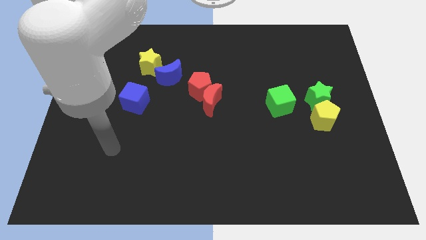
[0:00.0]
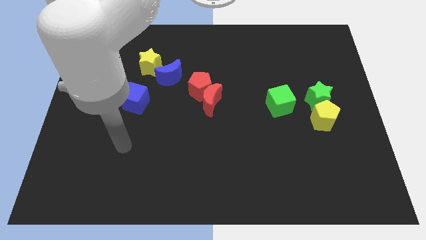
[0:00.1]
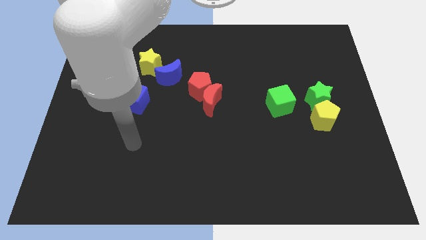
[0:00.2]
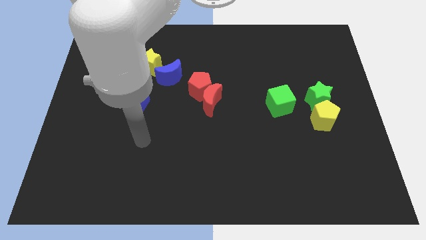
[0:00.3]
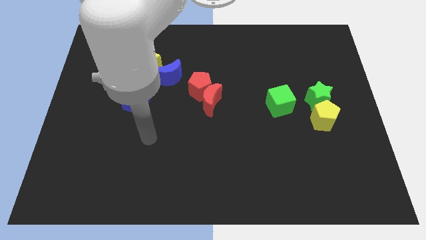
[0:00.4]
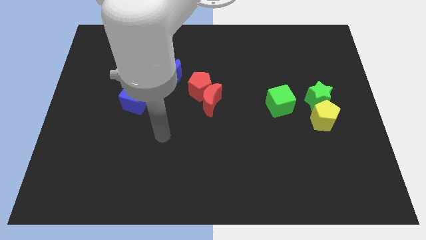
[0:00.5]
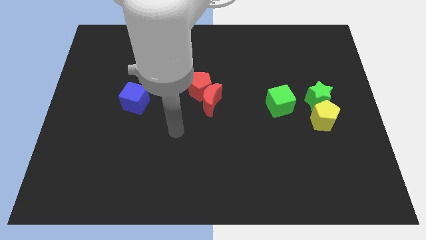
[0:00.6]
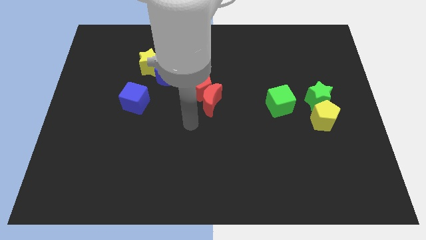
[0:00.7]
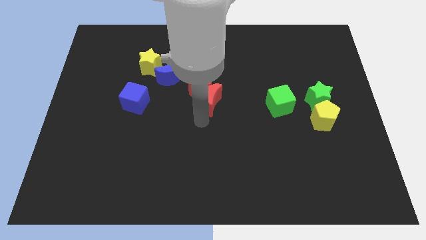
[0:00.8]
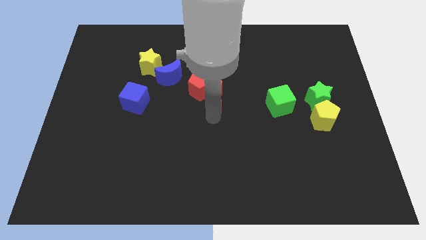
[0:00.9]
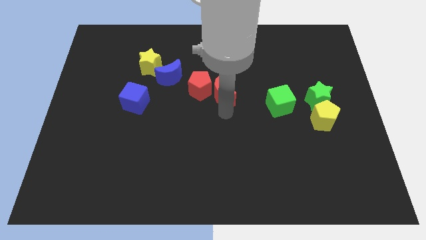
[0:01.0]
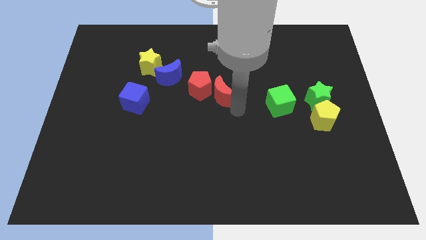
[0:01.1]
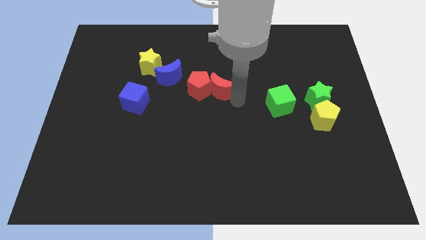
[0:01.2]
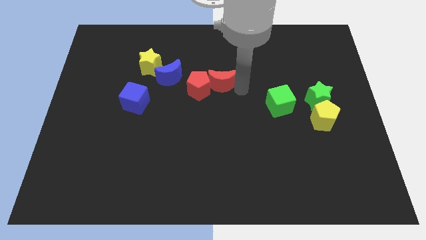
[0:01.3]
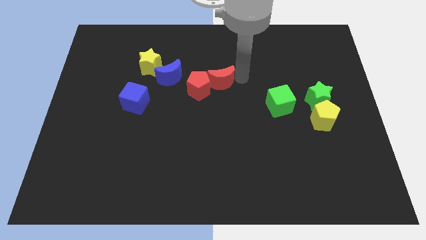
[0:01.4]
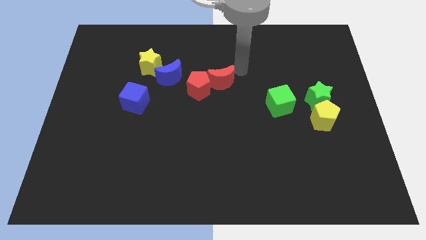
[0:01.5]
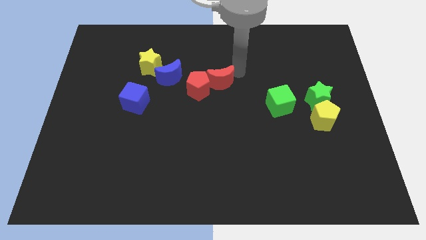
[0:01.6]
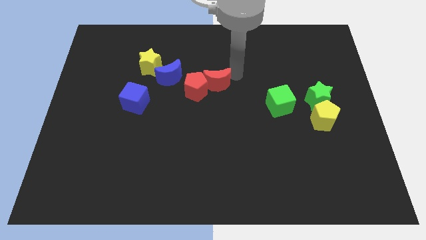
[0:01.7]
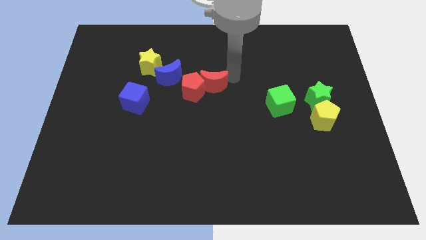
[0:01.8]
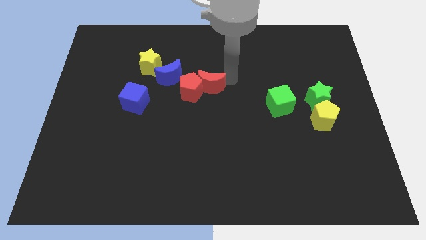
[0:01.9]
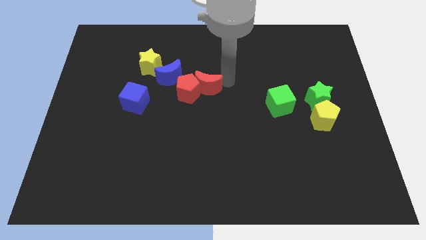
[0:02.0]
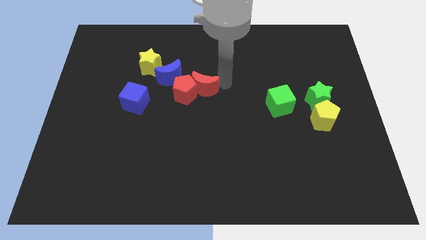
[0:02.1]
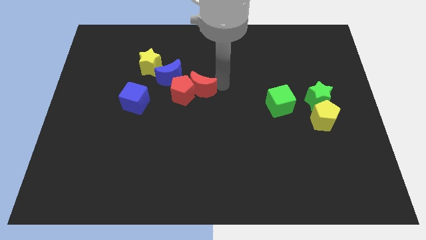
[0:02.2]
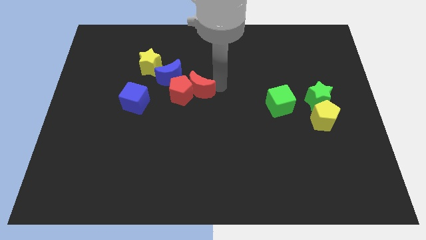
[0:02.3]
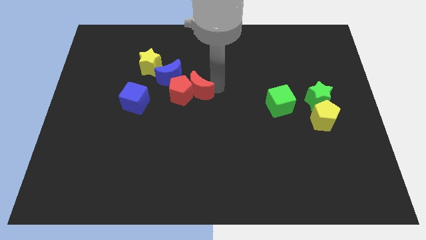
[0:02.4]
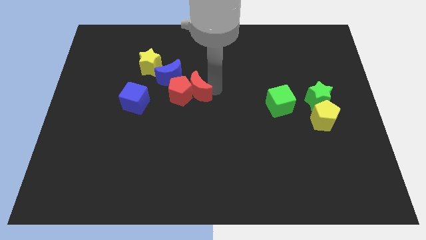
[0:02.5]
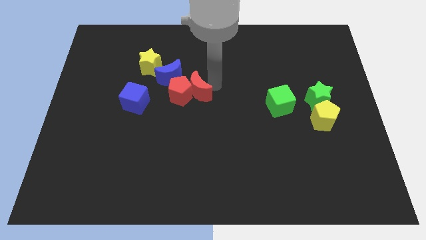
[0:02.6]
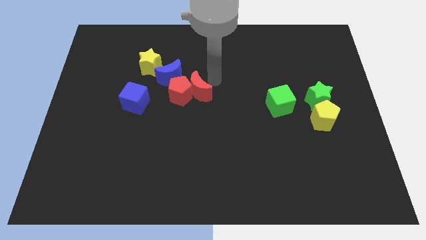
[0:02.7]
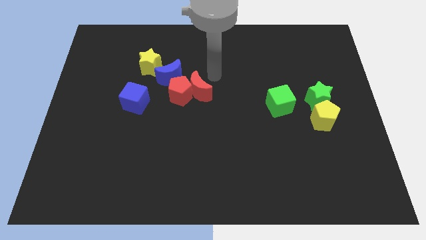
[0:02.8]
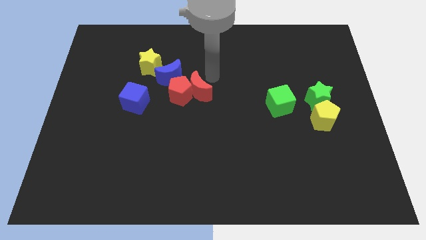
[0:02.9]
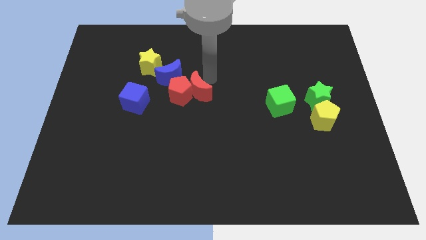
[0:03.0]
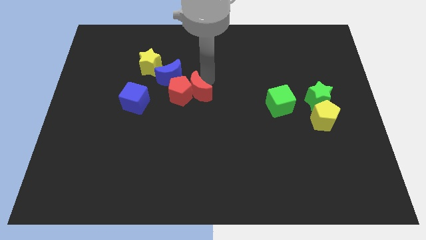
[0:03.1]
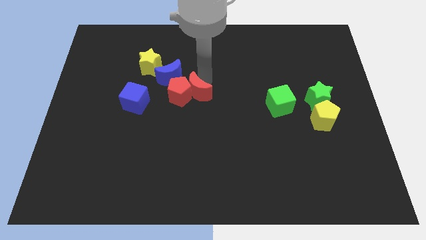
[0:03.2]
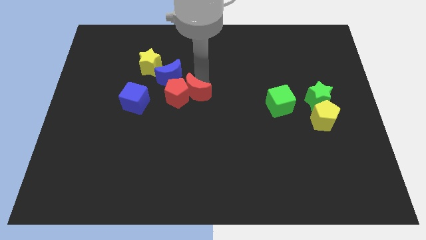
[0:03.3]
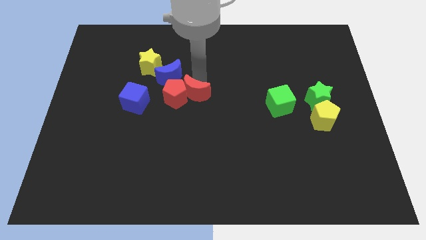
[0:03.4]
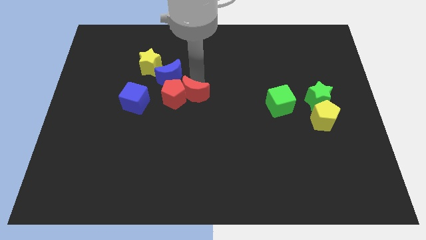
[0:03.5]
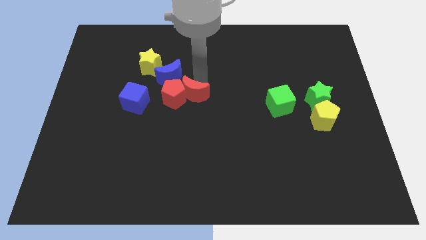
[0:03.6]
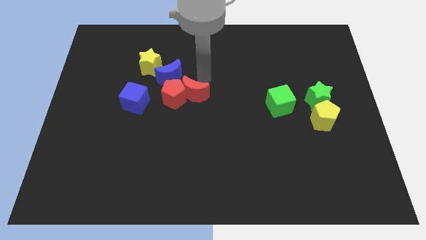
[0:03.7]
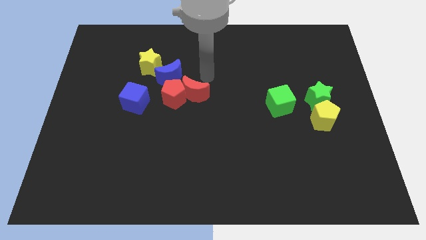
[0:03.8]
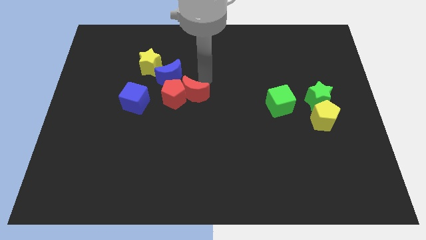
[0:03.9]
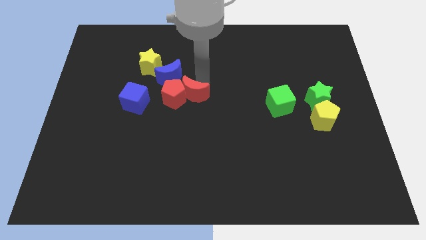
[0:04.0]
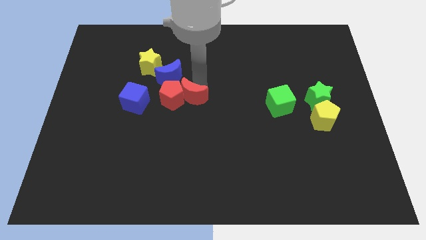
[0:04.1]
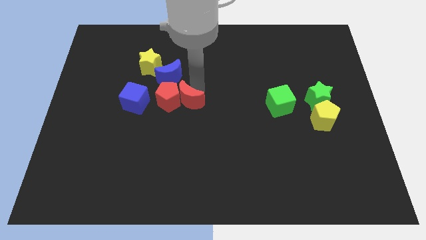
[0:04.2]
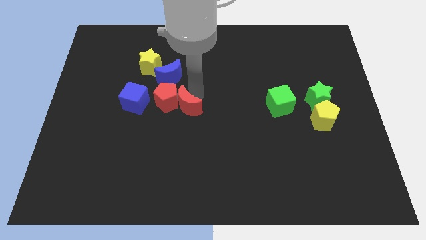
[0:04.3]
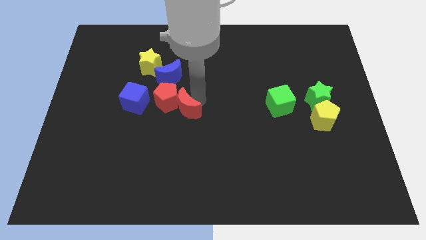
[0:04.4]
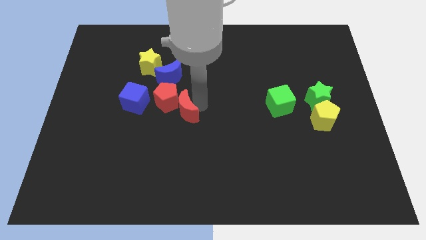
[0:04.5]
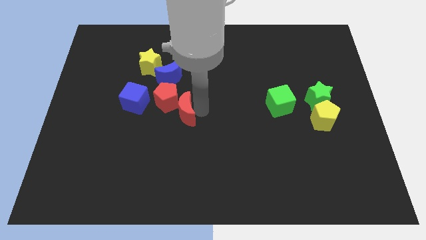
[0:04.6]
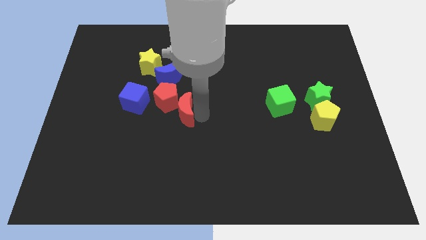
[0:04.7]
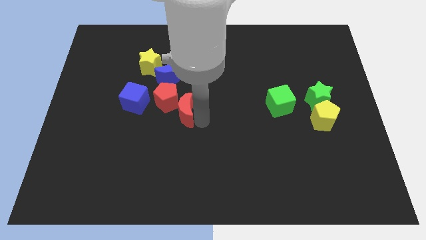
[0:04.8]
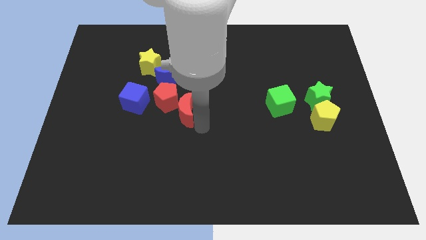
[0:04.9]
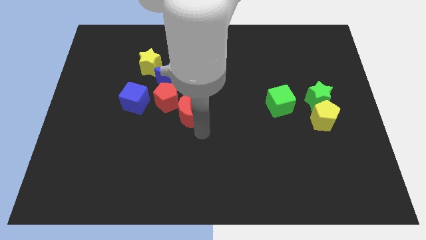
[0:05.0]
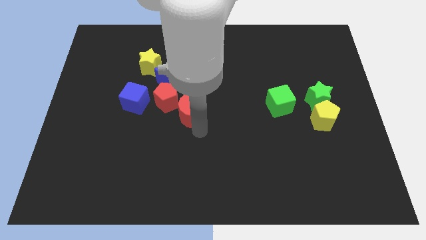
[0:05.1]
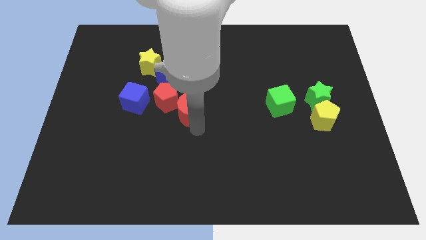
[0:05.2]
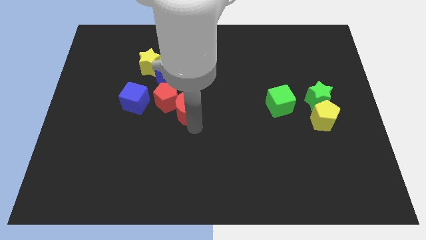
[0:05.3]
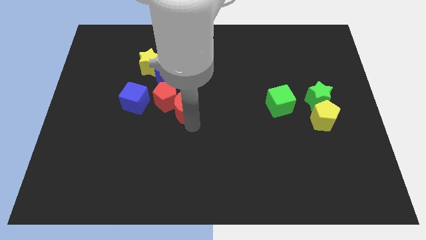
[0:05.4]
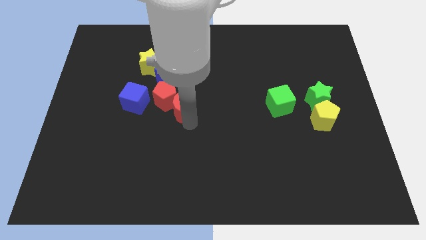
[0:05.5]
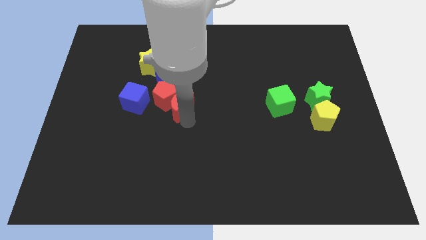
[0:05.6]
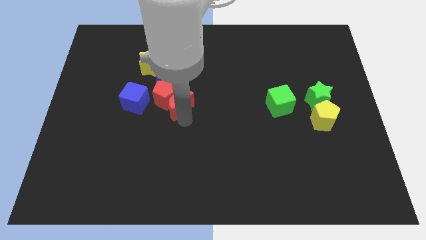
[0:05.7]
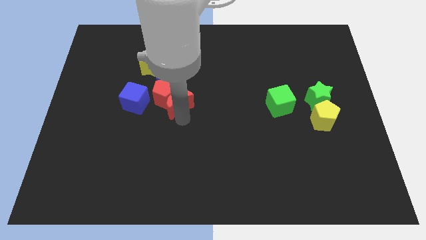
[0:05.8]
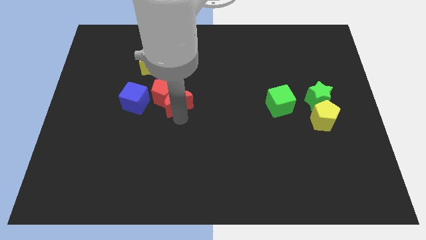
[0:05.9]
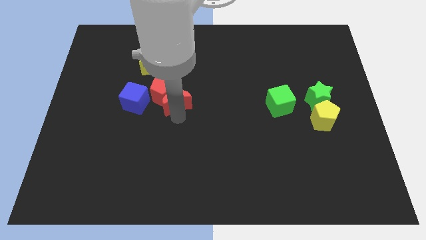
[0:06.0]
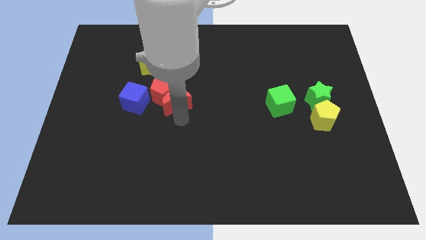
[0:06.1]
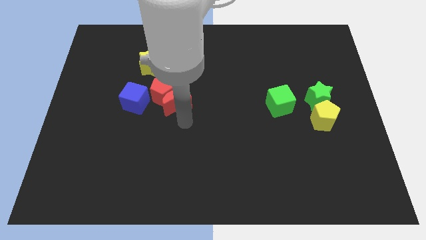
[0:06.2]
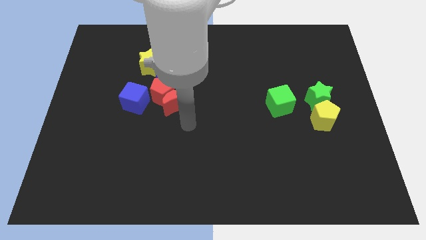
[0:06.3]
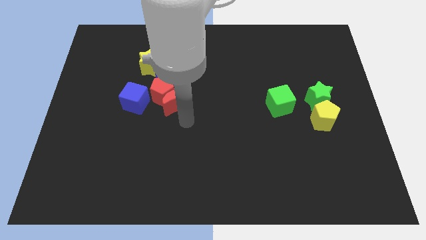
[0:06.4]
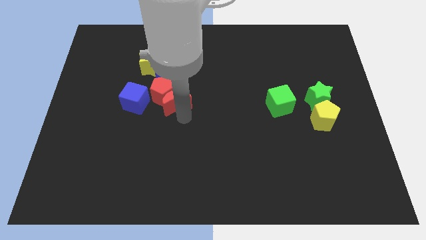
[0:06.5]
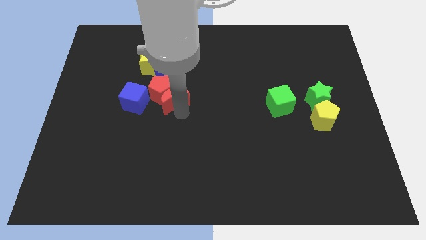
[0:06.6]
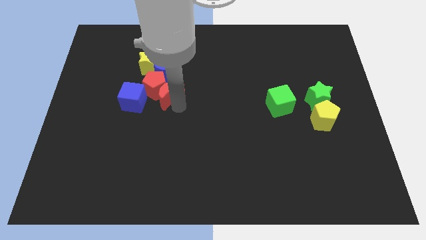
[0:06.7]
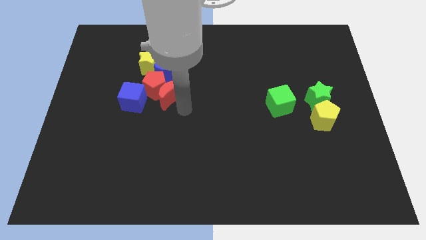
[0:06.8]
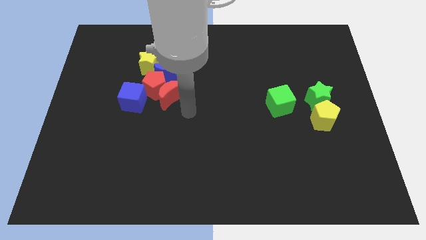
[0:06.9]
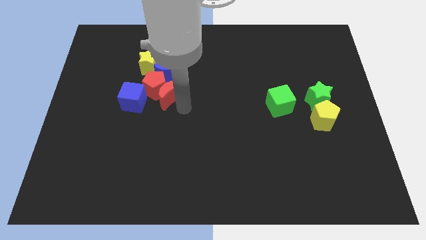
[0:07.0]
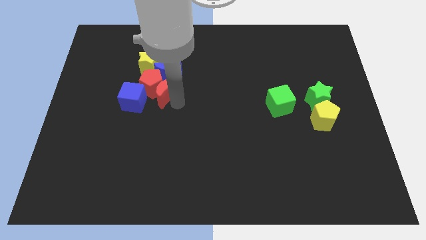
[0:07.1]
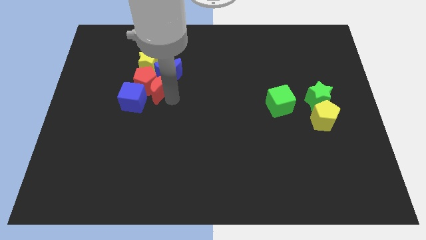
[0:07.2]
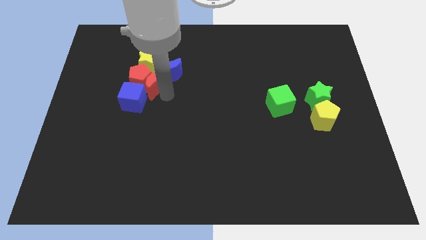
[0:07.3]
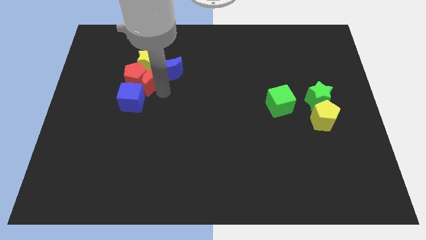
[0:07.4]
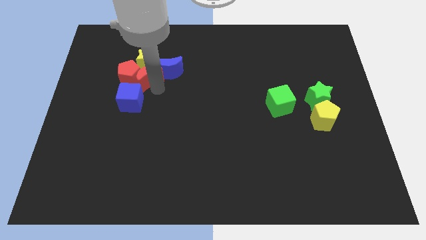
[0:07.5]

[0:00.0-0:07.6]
put the red moon close to the yellow star
